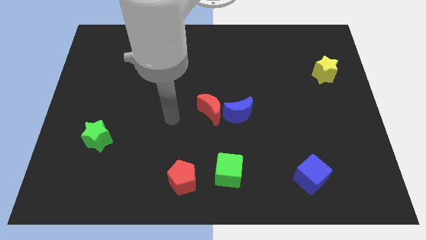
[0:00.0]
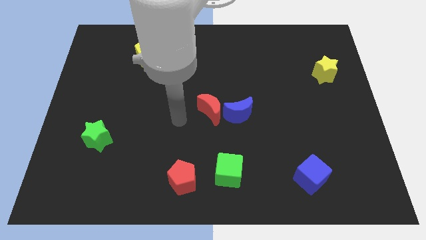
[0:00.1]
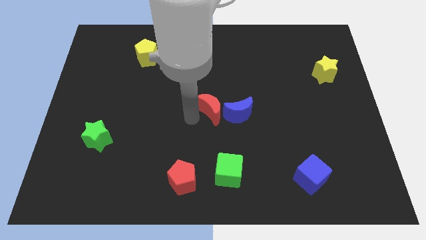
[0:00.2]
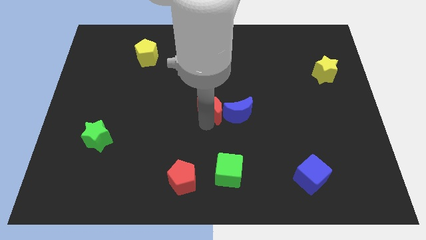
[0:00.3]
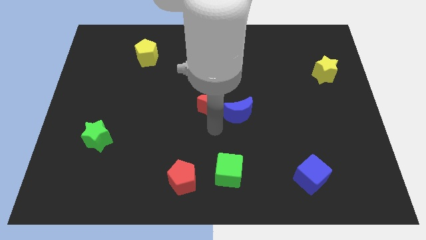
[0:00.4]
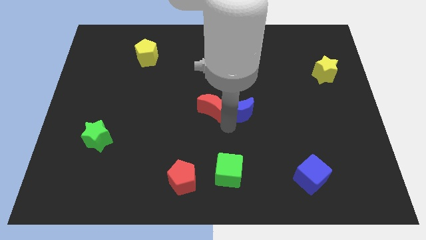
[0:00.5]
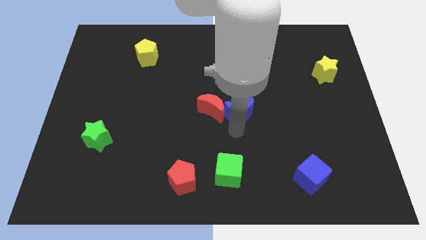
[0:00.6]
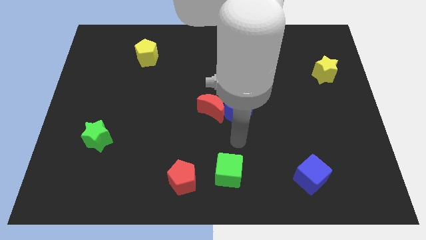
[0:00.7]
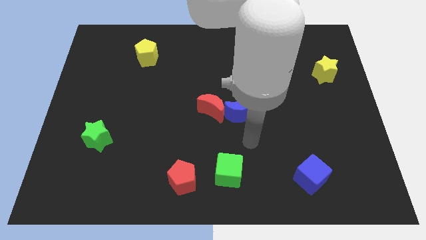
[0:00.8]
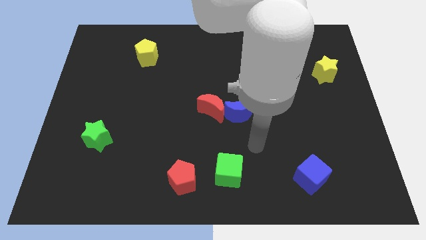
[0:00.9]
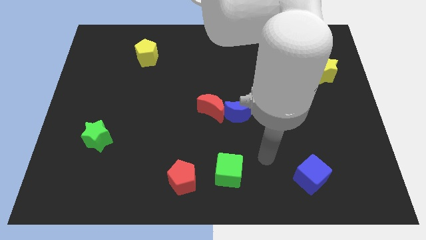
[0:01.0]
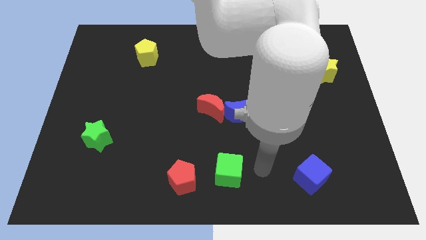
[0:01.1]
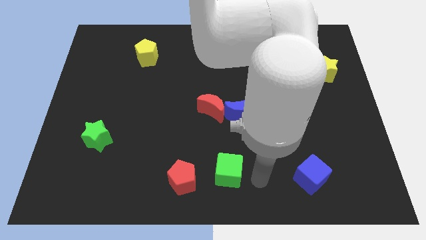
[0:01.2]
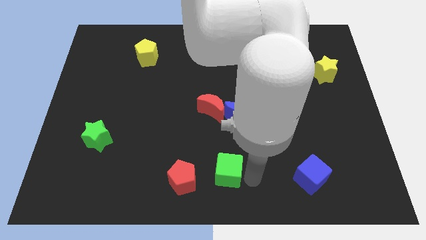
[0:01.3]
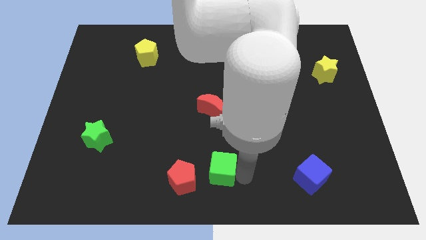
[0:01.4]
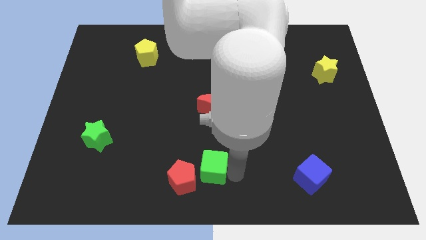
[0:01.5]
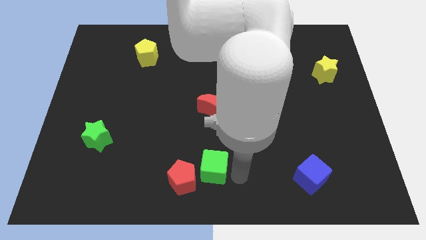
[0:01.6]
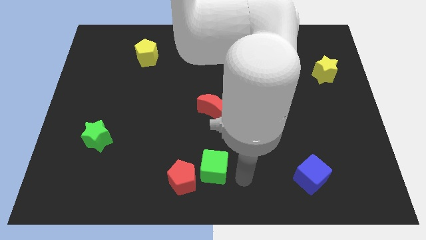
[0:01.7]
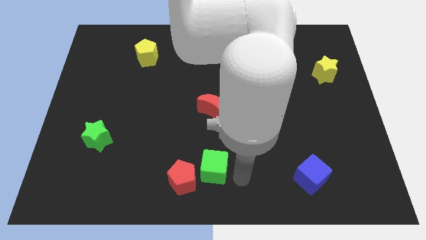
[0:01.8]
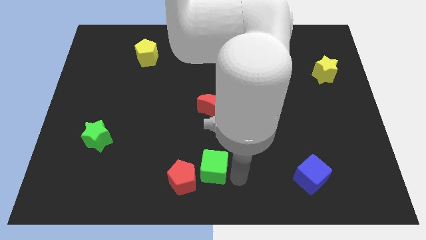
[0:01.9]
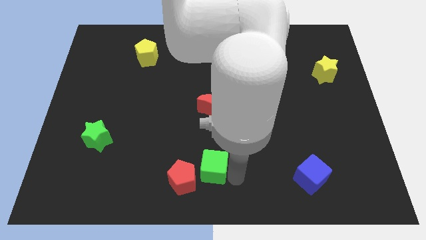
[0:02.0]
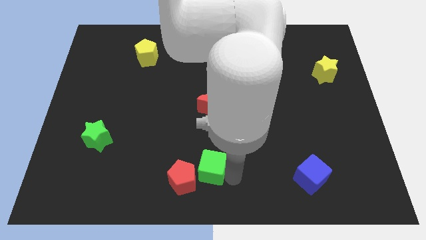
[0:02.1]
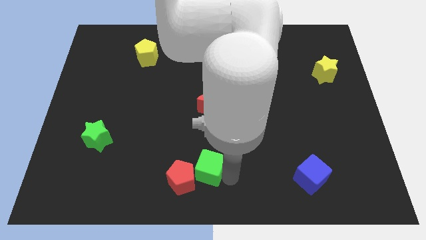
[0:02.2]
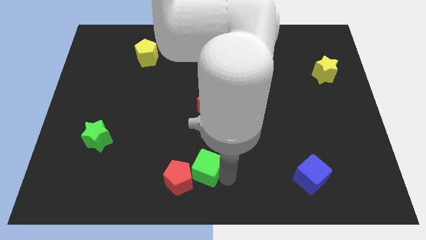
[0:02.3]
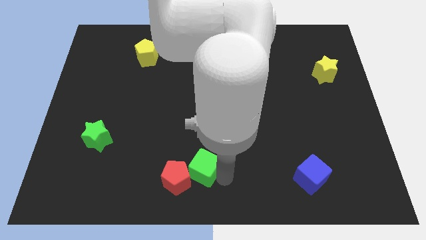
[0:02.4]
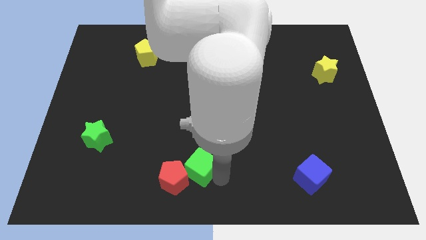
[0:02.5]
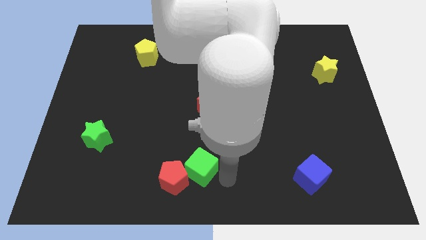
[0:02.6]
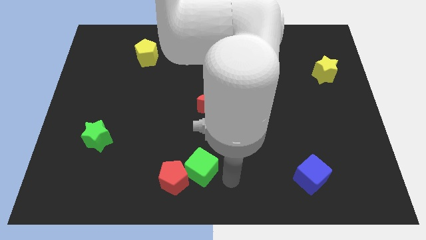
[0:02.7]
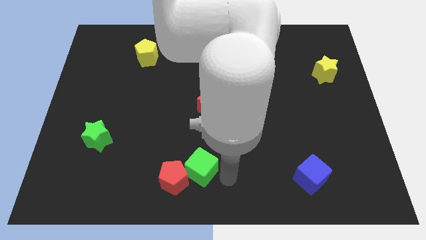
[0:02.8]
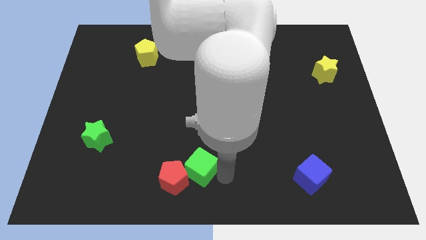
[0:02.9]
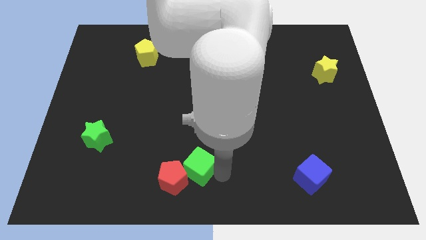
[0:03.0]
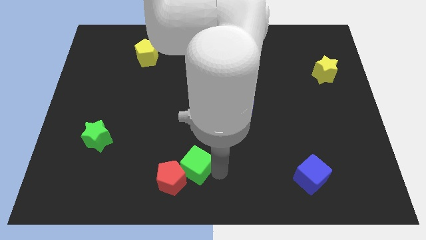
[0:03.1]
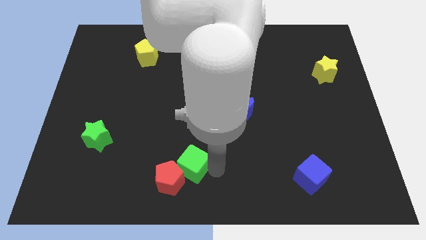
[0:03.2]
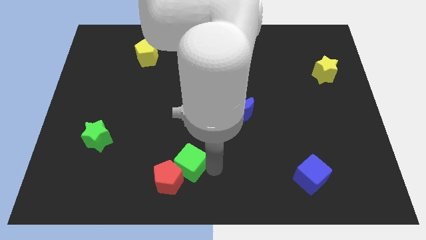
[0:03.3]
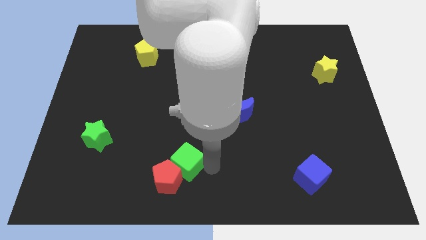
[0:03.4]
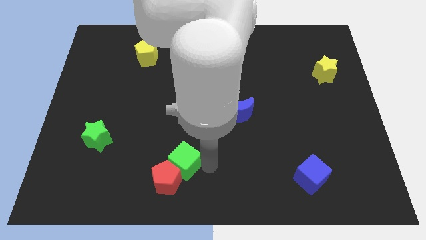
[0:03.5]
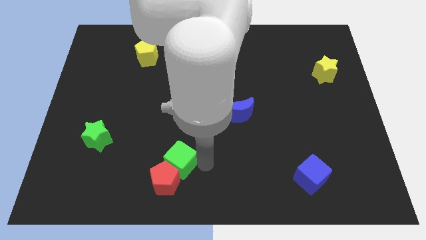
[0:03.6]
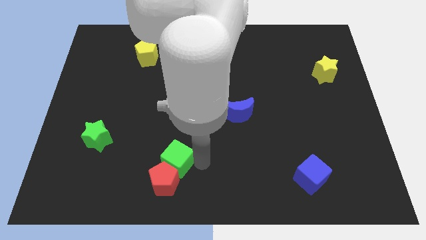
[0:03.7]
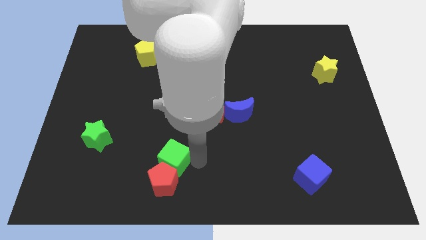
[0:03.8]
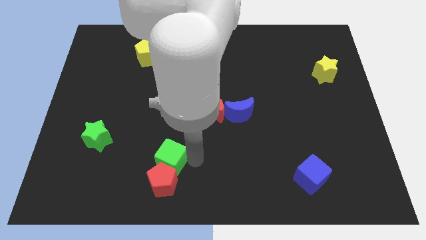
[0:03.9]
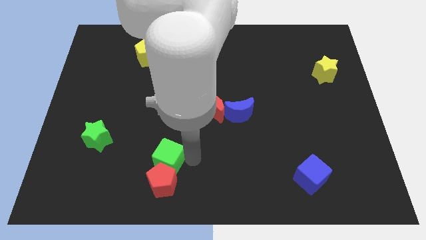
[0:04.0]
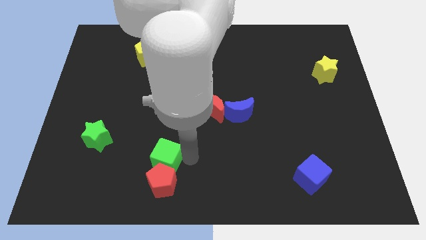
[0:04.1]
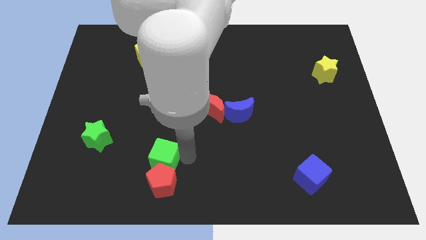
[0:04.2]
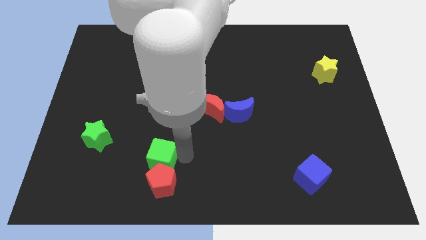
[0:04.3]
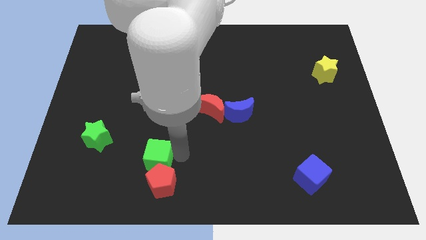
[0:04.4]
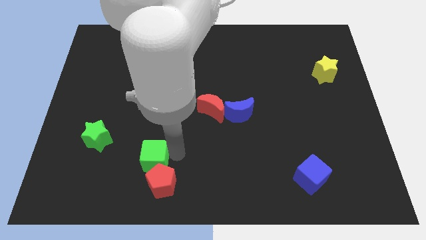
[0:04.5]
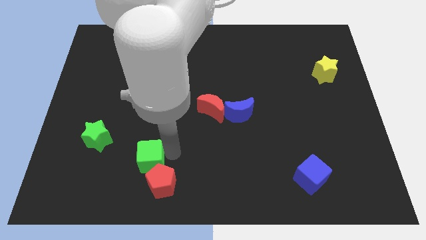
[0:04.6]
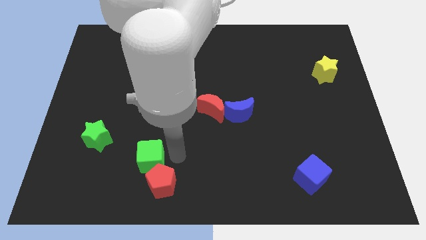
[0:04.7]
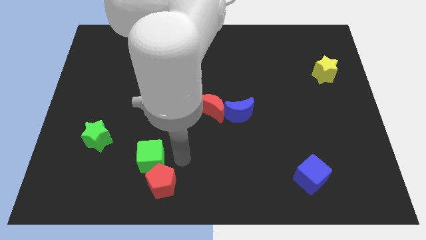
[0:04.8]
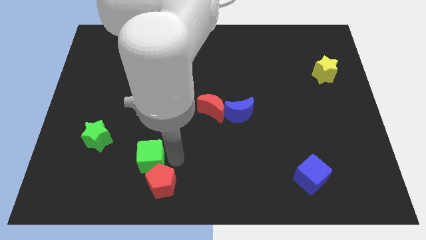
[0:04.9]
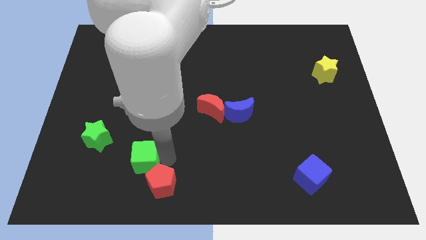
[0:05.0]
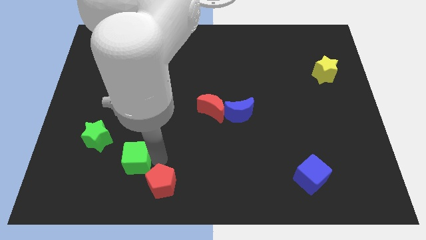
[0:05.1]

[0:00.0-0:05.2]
slide the green cube to the bottom right side of the green star

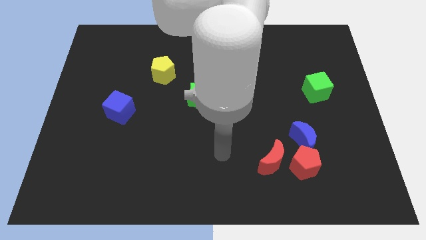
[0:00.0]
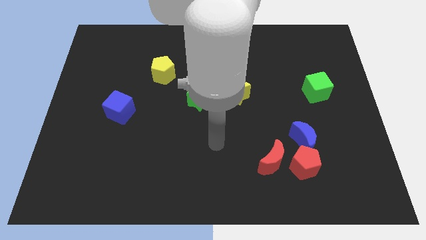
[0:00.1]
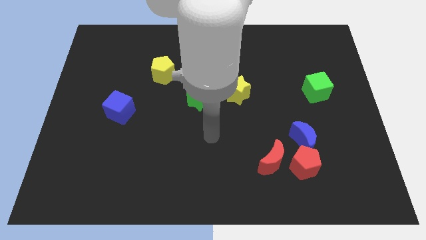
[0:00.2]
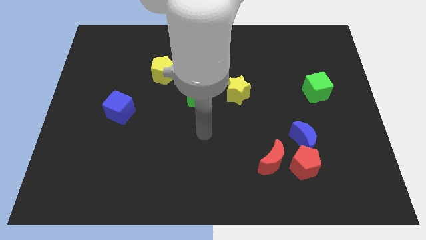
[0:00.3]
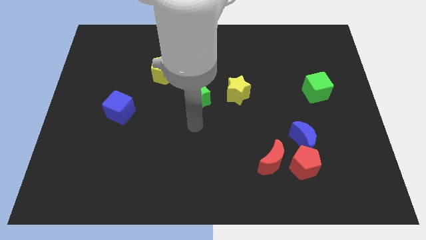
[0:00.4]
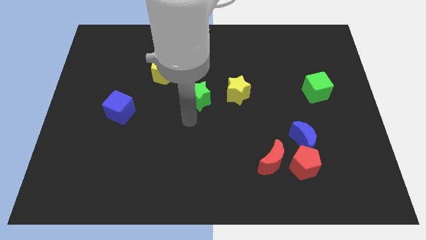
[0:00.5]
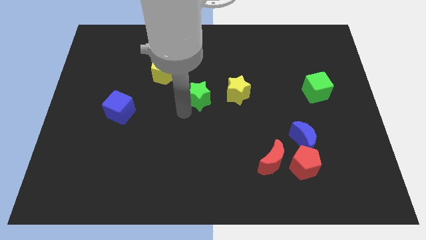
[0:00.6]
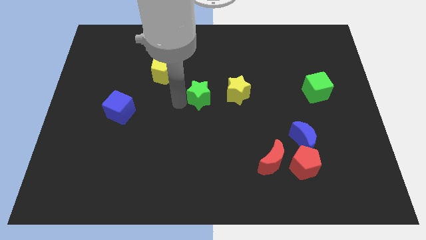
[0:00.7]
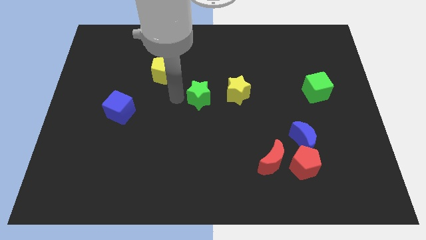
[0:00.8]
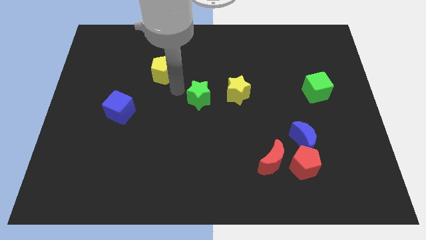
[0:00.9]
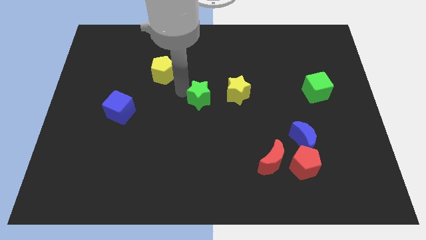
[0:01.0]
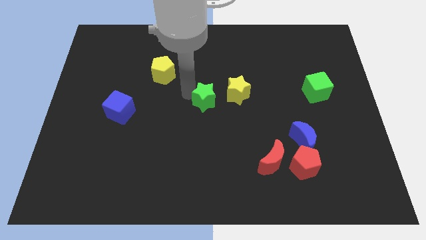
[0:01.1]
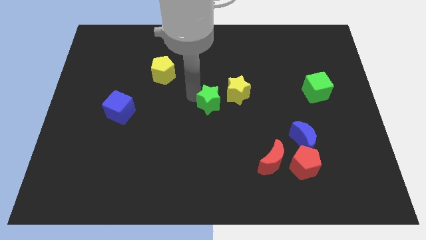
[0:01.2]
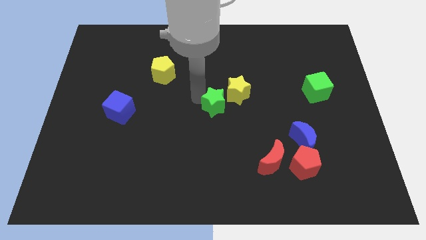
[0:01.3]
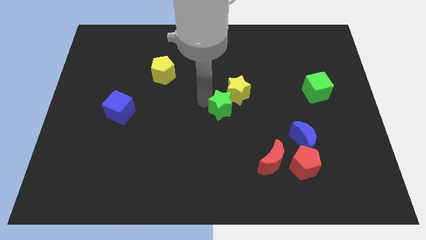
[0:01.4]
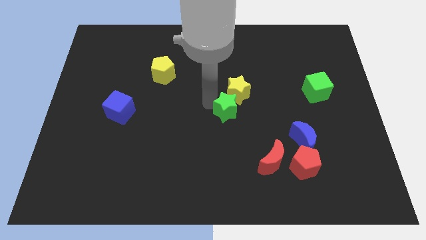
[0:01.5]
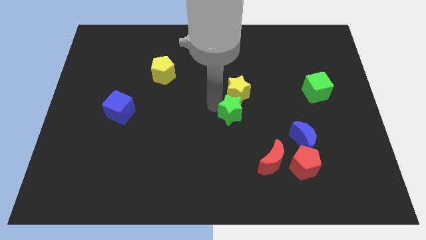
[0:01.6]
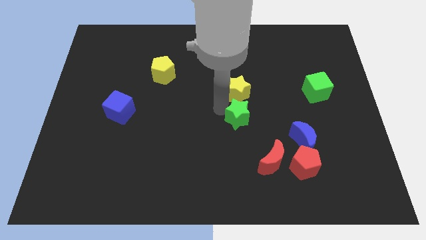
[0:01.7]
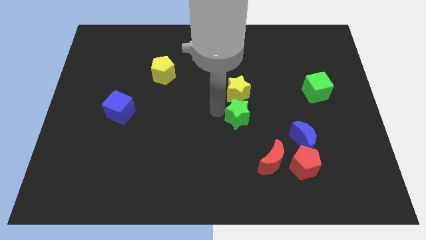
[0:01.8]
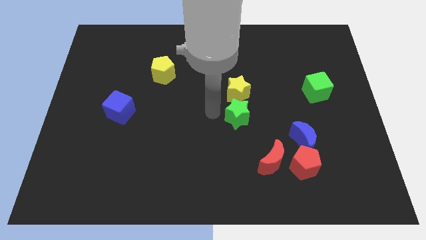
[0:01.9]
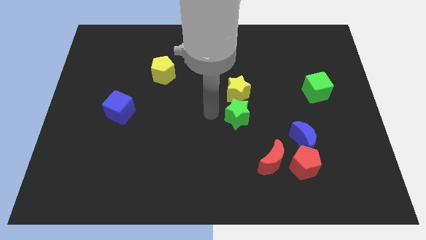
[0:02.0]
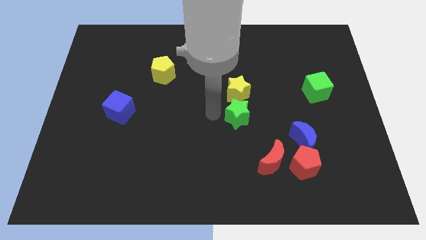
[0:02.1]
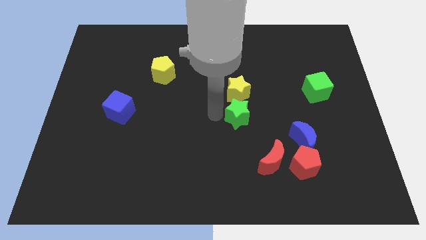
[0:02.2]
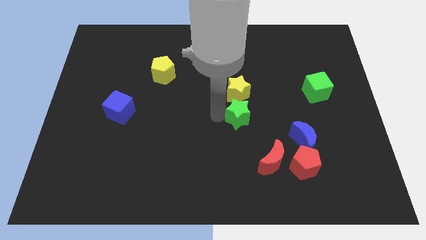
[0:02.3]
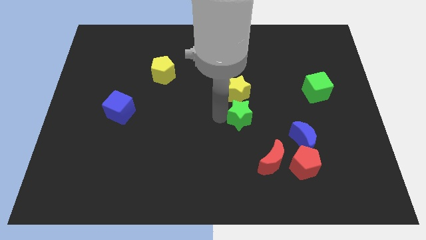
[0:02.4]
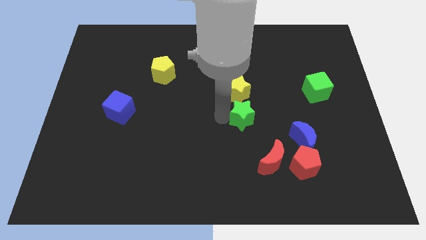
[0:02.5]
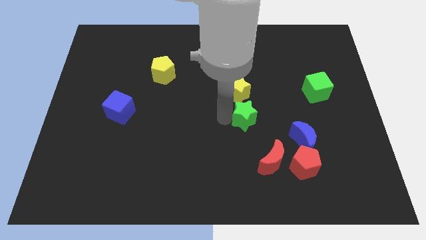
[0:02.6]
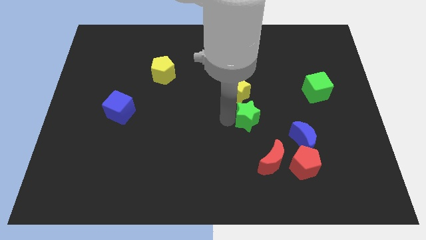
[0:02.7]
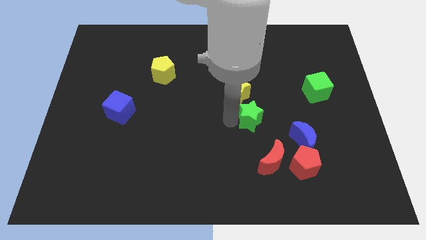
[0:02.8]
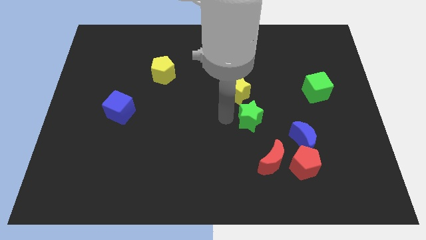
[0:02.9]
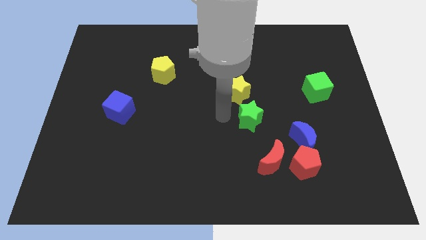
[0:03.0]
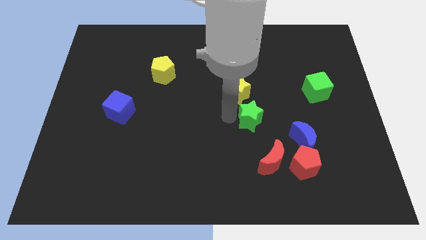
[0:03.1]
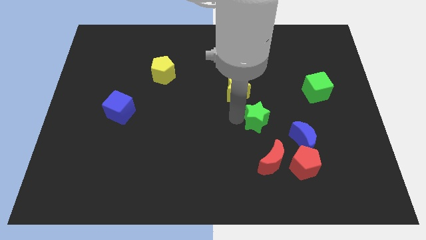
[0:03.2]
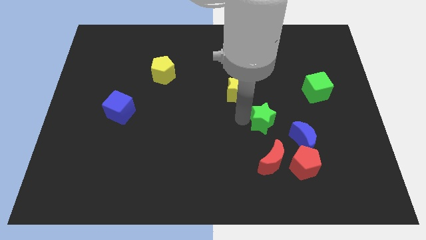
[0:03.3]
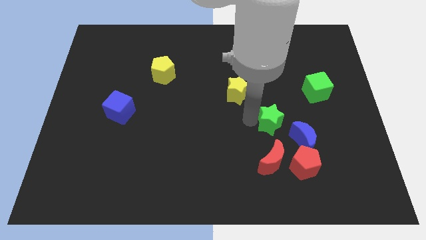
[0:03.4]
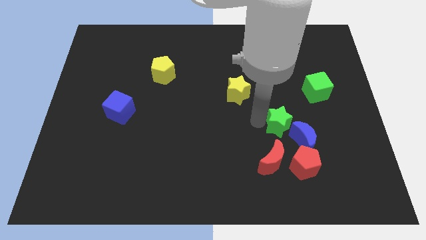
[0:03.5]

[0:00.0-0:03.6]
move the green star above the red pentagon
